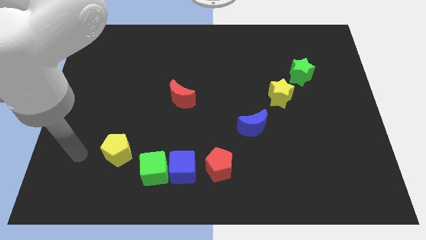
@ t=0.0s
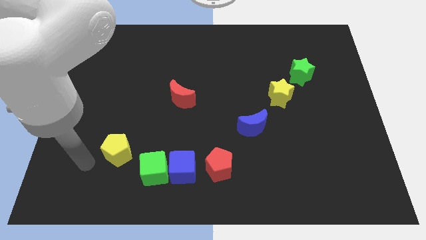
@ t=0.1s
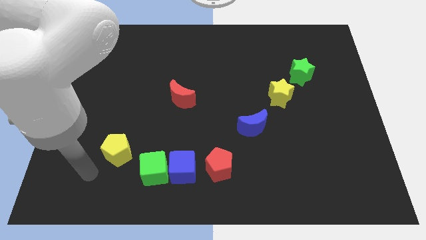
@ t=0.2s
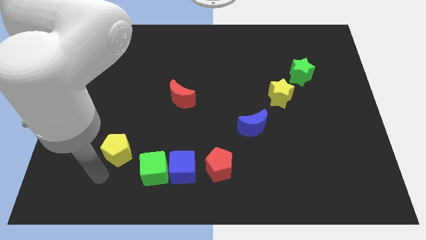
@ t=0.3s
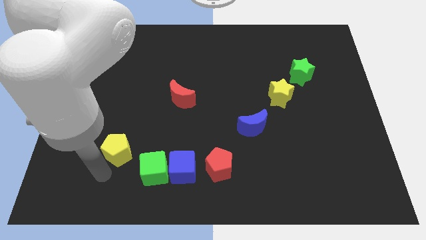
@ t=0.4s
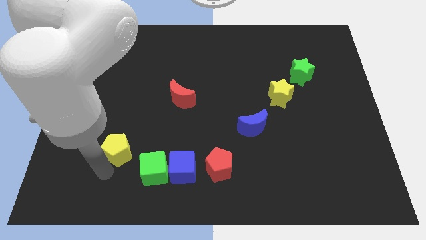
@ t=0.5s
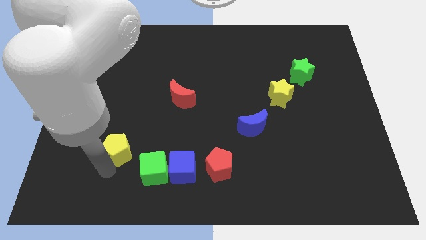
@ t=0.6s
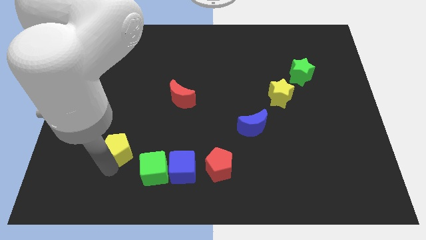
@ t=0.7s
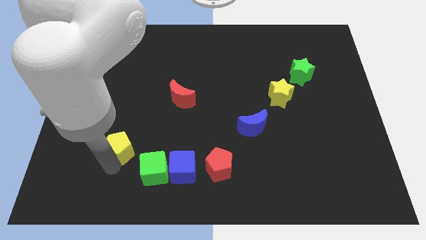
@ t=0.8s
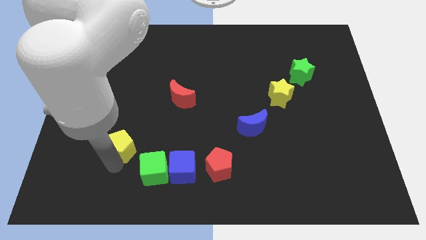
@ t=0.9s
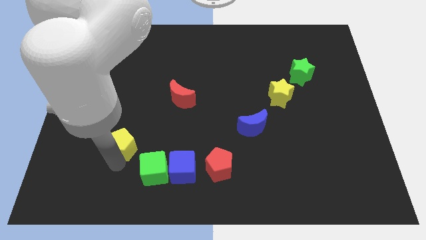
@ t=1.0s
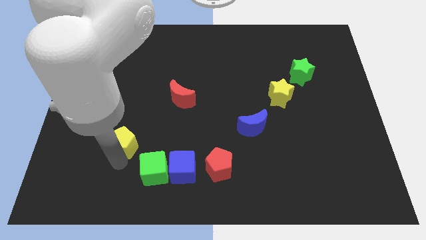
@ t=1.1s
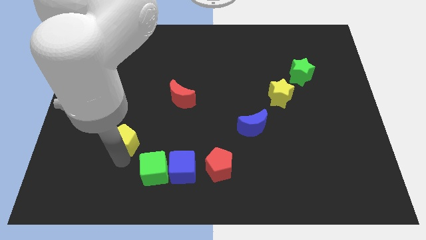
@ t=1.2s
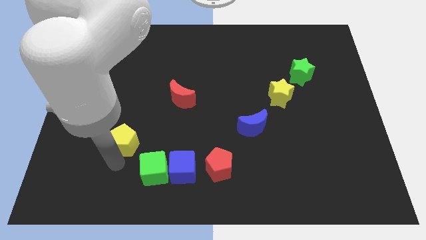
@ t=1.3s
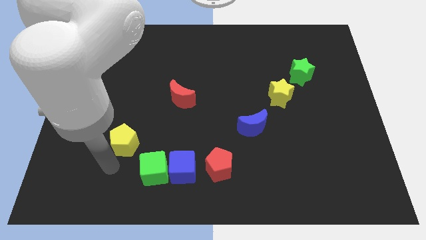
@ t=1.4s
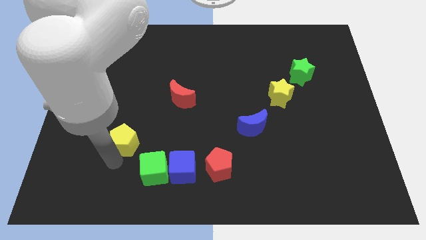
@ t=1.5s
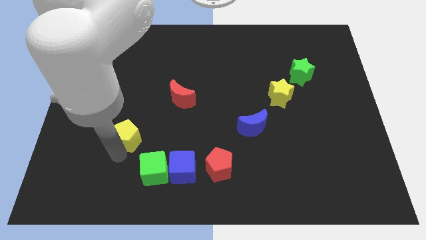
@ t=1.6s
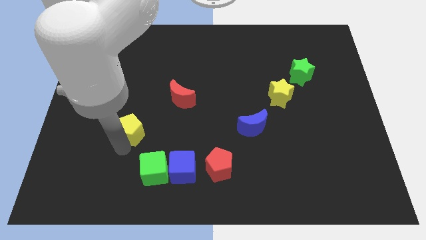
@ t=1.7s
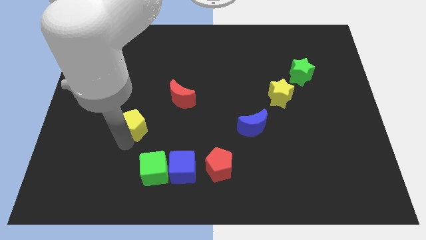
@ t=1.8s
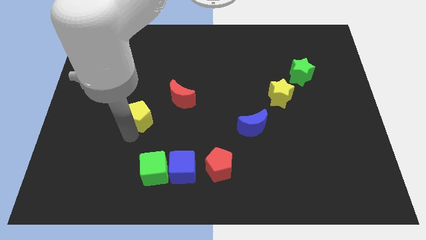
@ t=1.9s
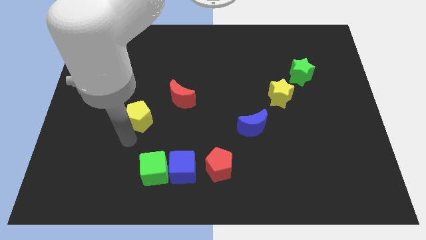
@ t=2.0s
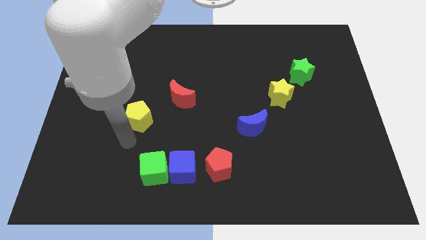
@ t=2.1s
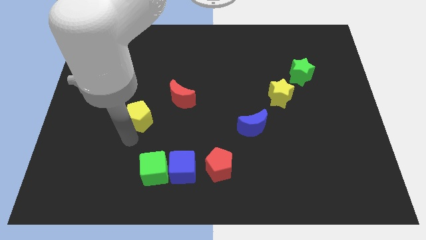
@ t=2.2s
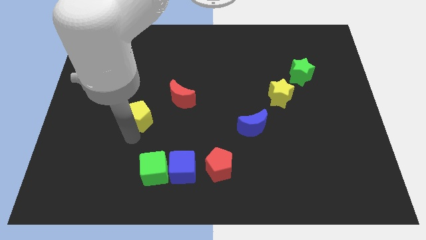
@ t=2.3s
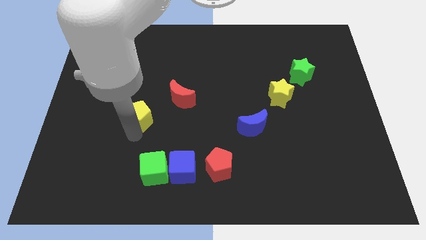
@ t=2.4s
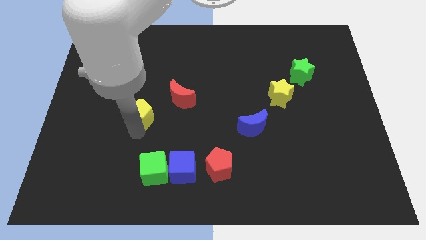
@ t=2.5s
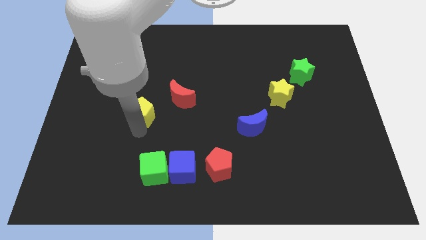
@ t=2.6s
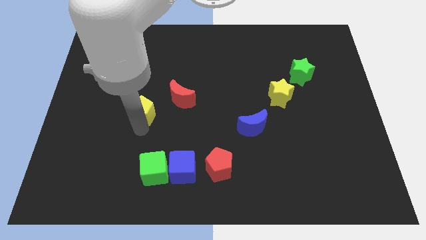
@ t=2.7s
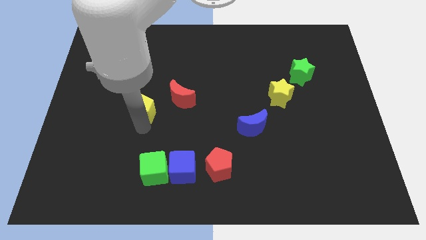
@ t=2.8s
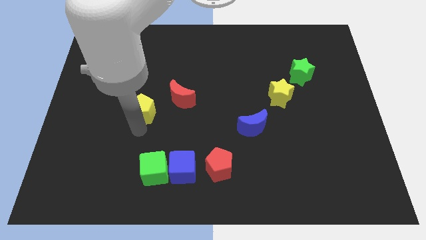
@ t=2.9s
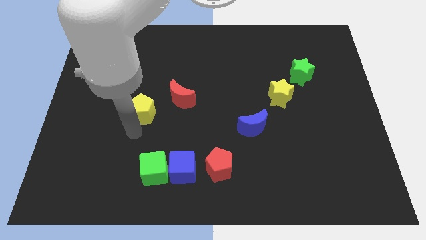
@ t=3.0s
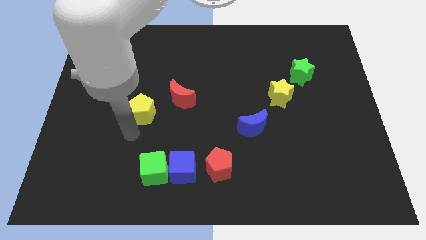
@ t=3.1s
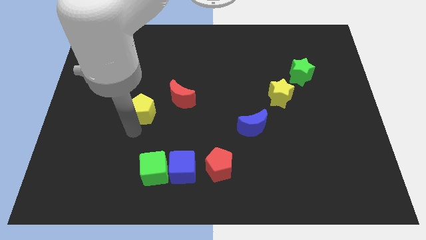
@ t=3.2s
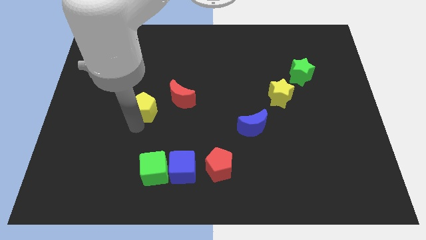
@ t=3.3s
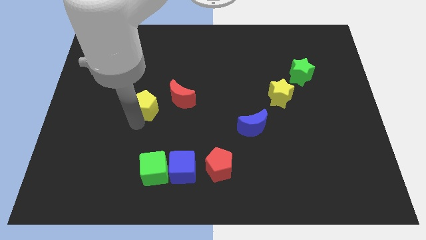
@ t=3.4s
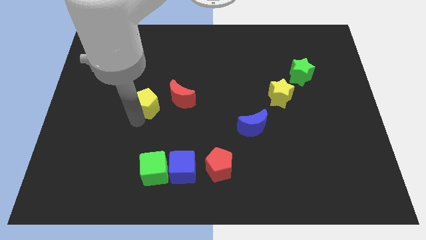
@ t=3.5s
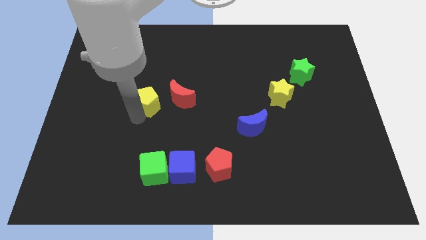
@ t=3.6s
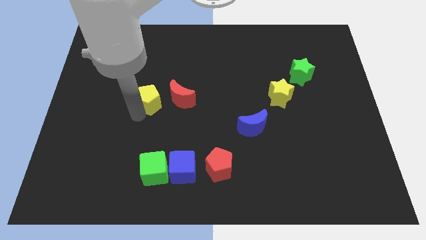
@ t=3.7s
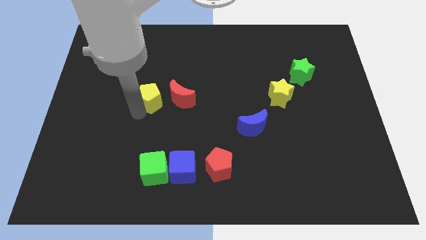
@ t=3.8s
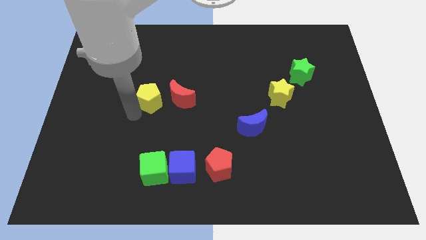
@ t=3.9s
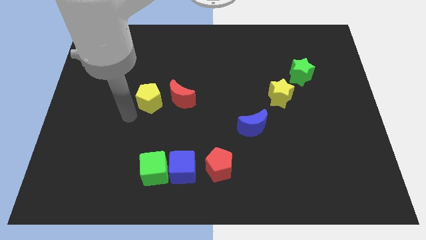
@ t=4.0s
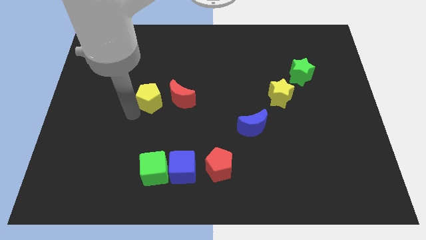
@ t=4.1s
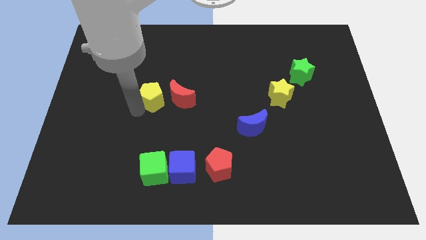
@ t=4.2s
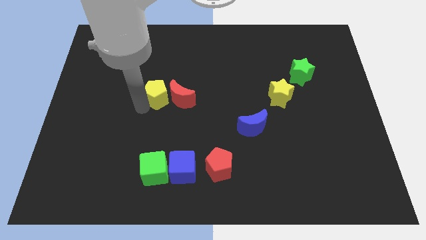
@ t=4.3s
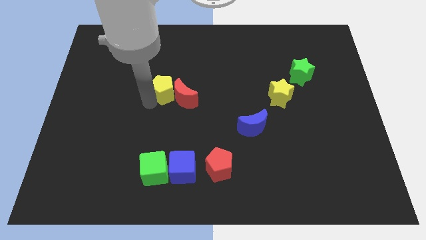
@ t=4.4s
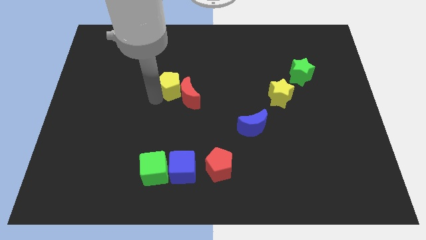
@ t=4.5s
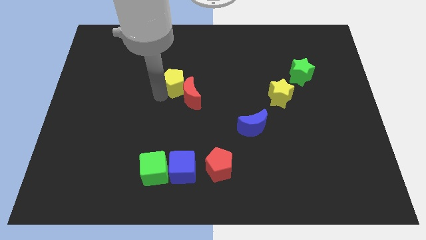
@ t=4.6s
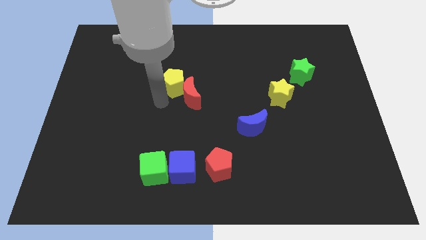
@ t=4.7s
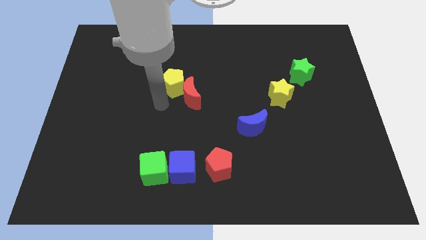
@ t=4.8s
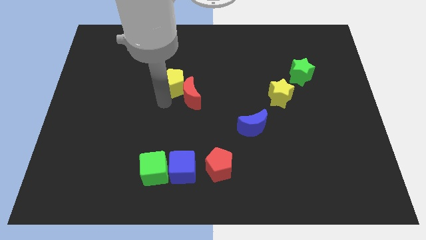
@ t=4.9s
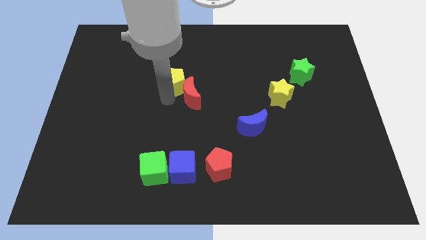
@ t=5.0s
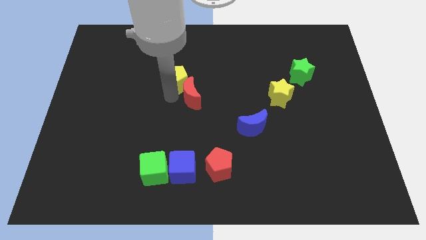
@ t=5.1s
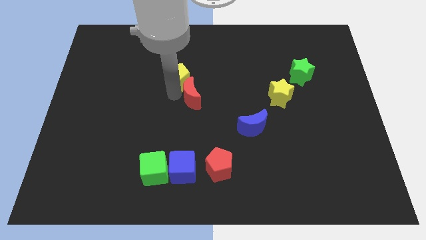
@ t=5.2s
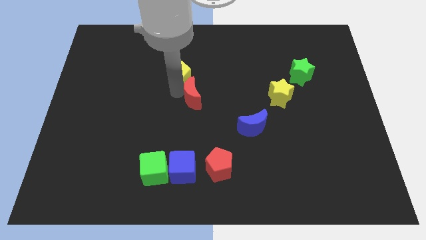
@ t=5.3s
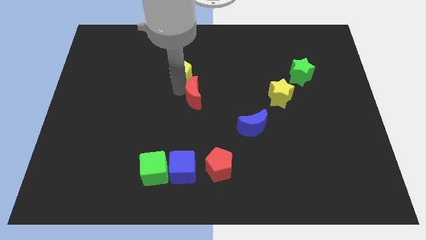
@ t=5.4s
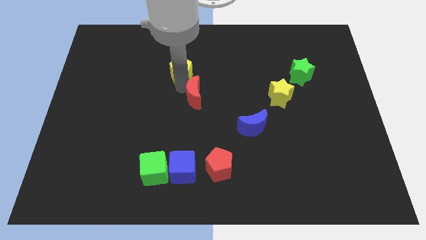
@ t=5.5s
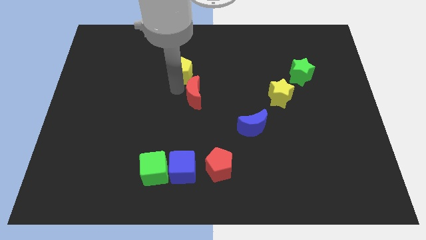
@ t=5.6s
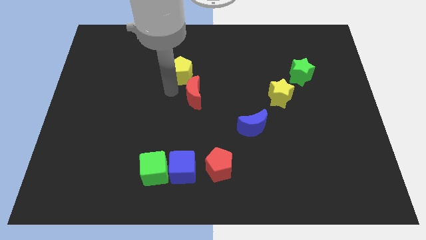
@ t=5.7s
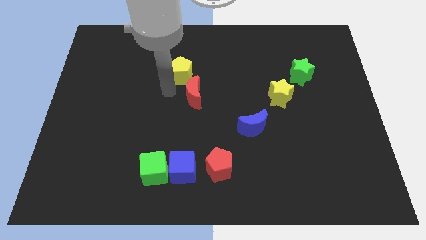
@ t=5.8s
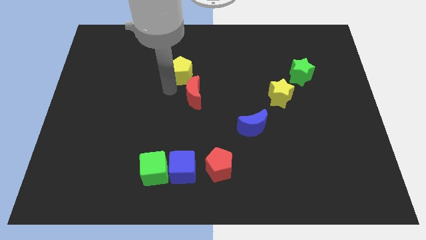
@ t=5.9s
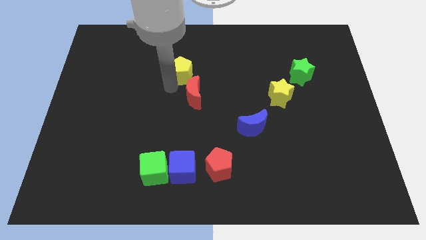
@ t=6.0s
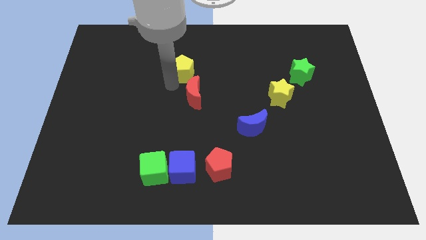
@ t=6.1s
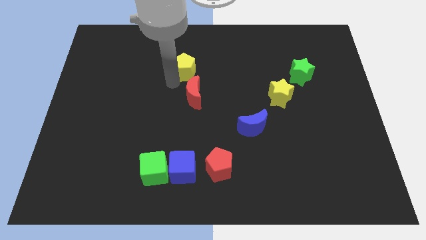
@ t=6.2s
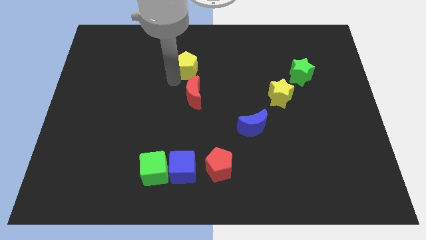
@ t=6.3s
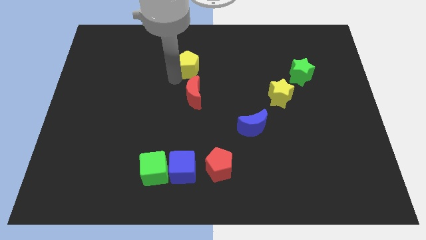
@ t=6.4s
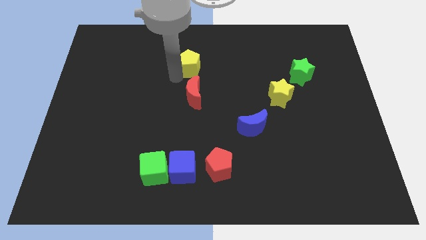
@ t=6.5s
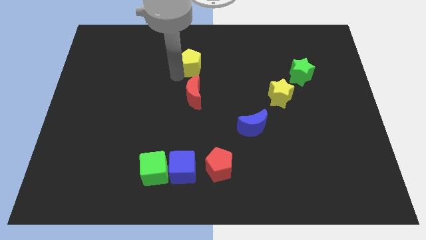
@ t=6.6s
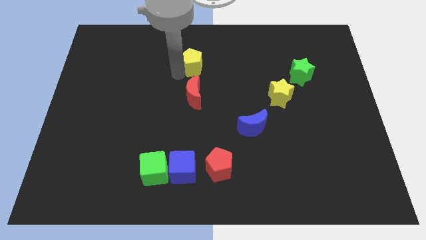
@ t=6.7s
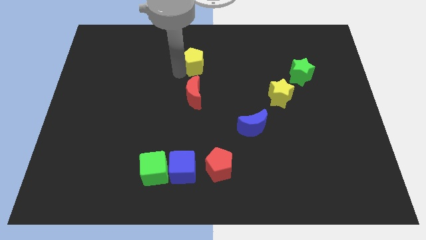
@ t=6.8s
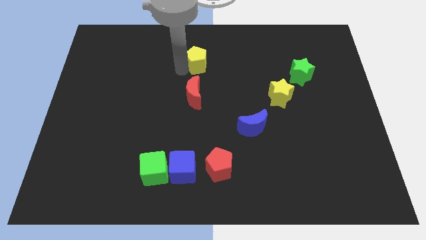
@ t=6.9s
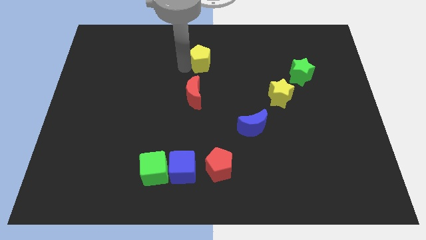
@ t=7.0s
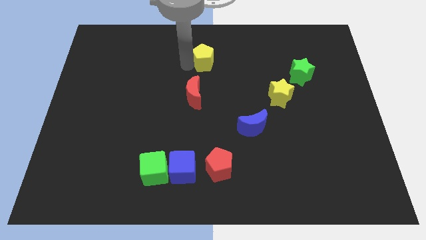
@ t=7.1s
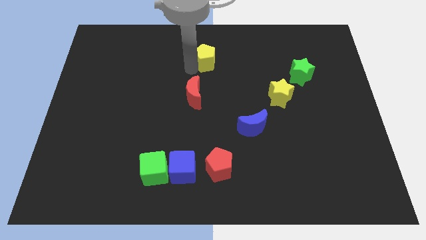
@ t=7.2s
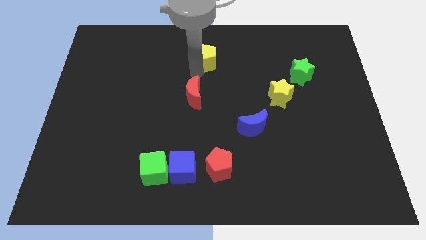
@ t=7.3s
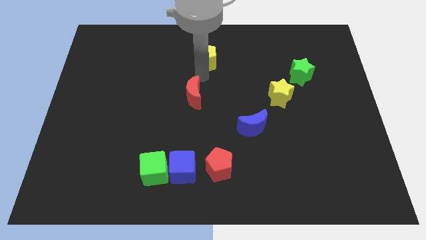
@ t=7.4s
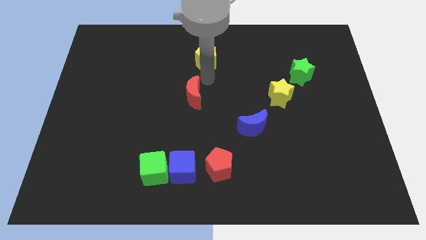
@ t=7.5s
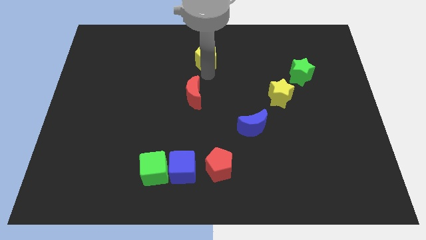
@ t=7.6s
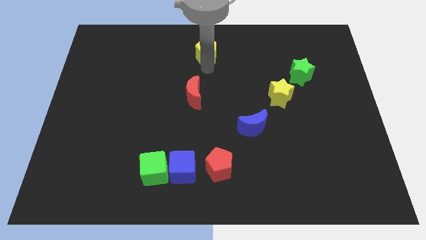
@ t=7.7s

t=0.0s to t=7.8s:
push the yellow pentagon to the top side
